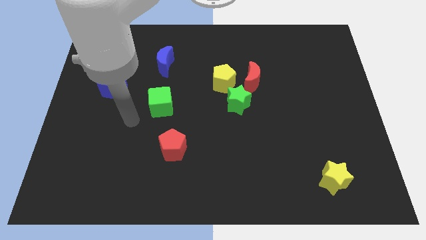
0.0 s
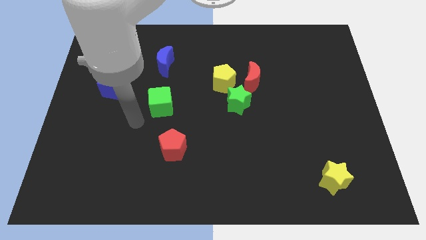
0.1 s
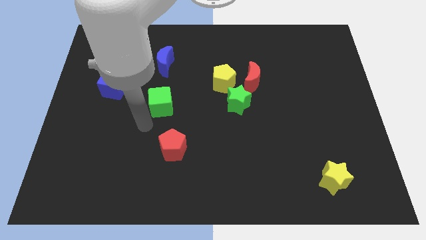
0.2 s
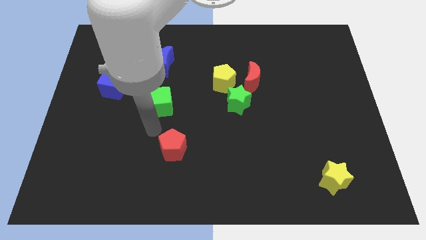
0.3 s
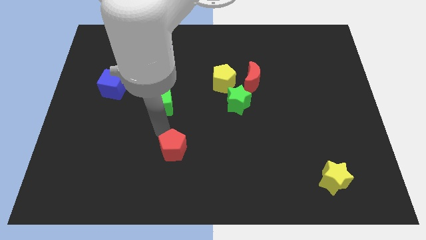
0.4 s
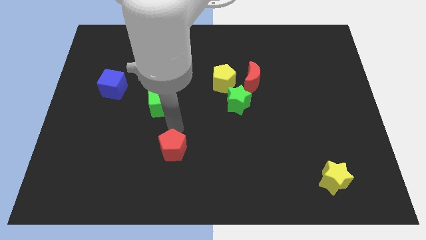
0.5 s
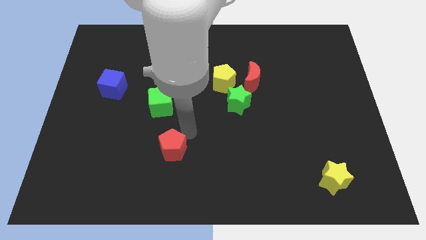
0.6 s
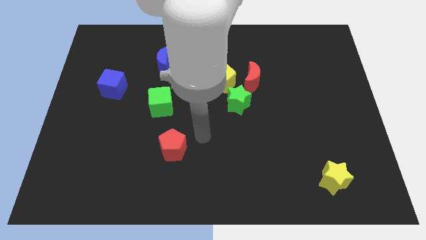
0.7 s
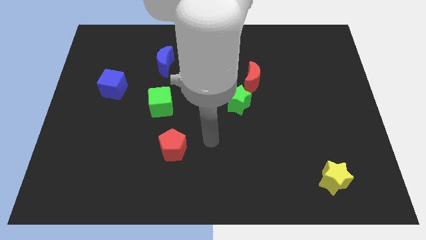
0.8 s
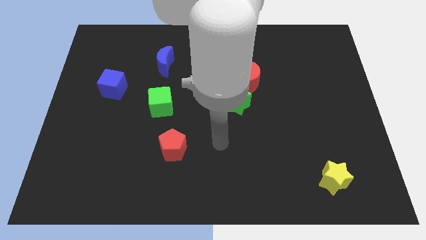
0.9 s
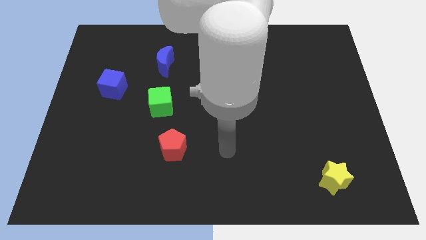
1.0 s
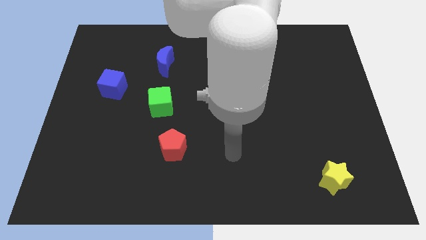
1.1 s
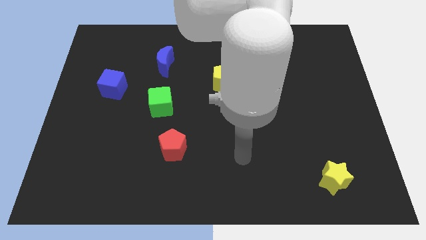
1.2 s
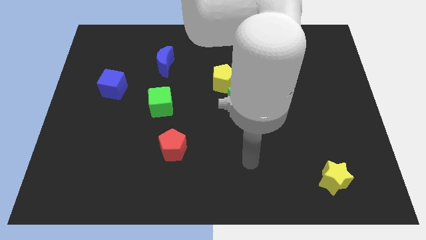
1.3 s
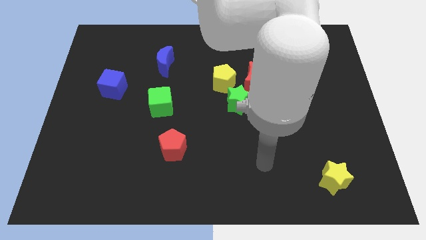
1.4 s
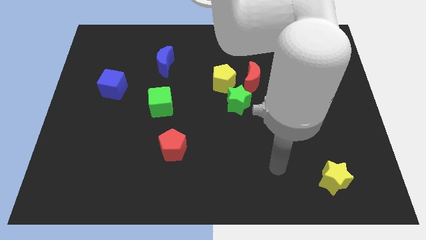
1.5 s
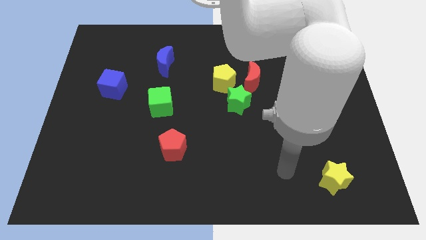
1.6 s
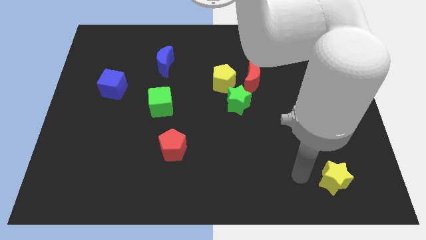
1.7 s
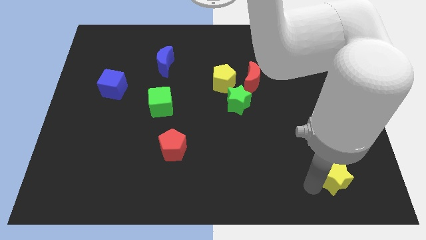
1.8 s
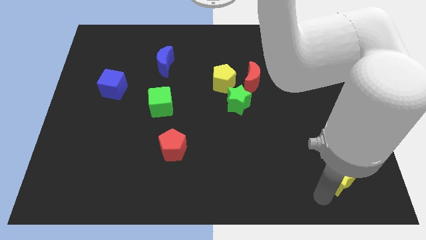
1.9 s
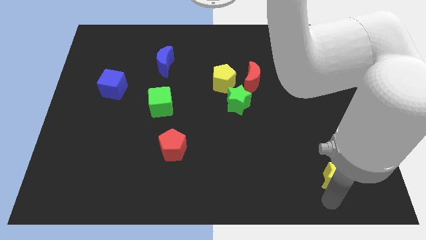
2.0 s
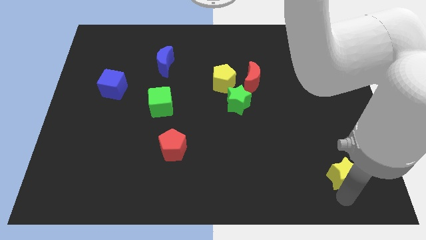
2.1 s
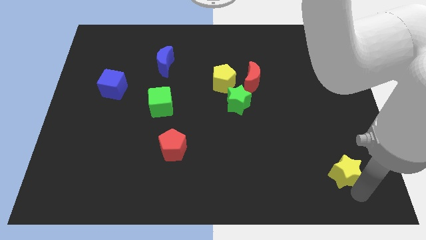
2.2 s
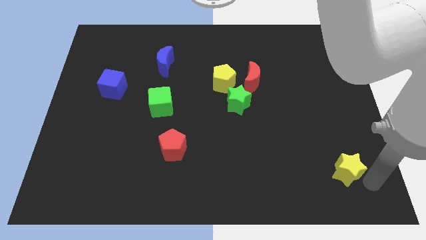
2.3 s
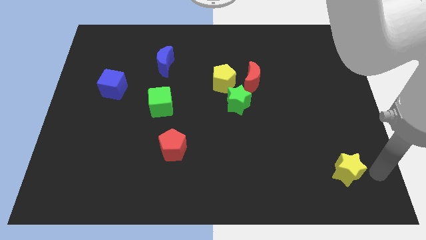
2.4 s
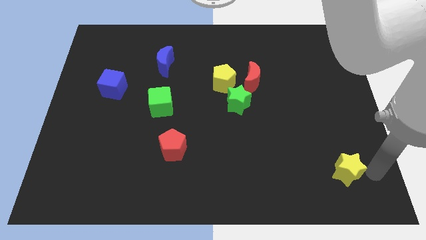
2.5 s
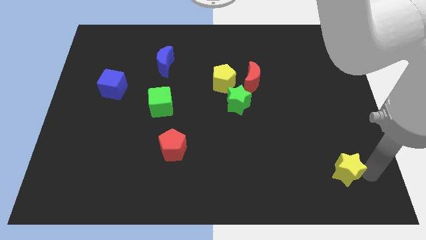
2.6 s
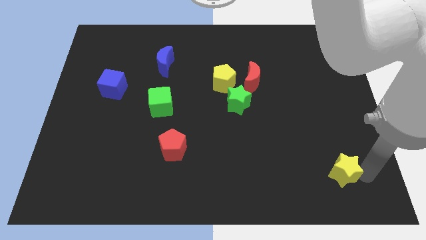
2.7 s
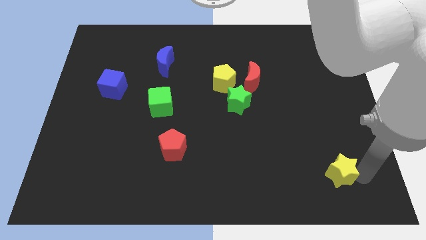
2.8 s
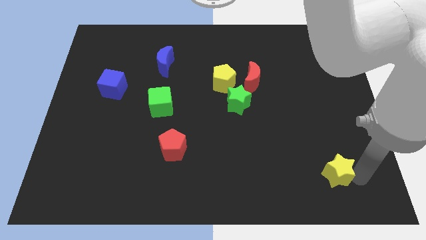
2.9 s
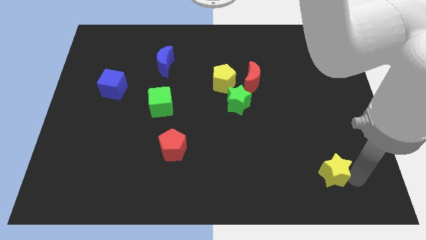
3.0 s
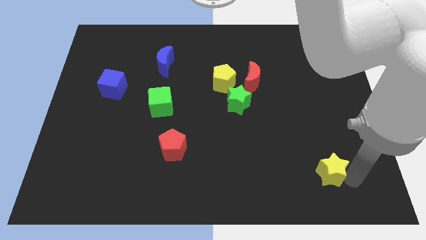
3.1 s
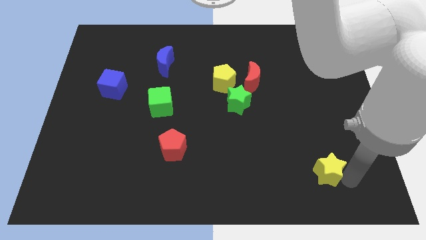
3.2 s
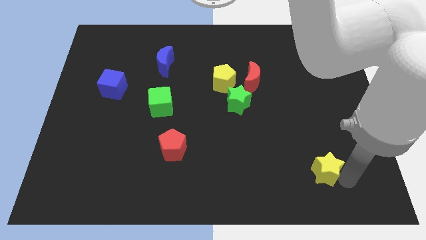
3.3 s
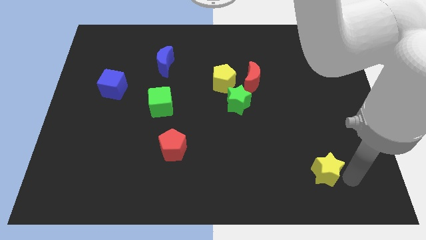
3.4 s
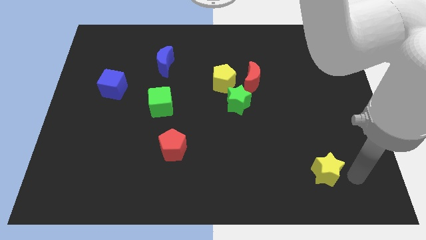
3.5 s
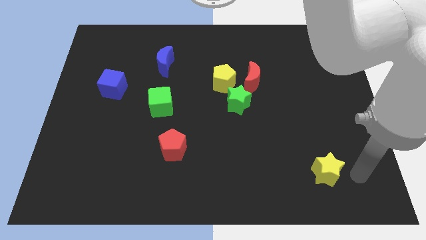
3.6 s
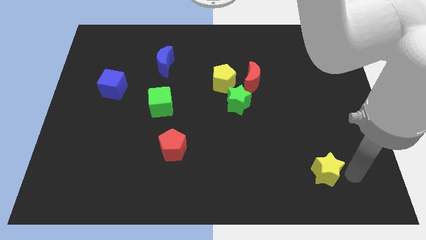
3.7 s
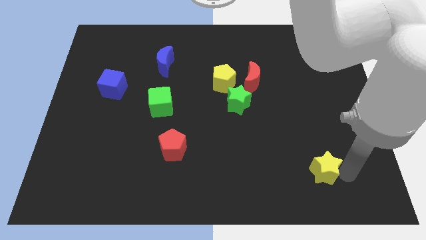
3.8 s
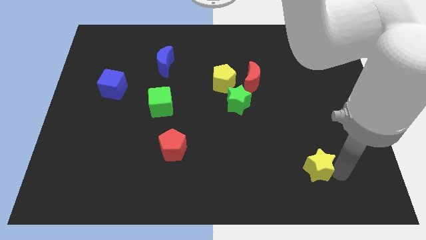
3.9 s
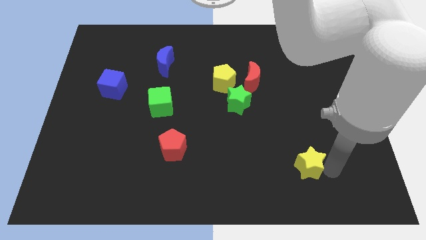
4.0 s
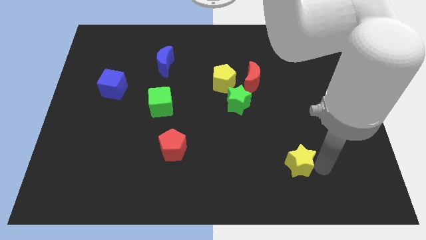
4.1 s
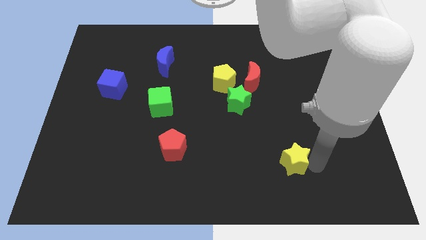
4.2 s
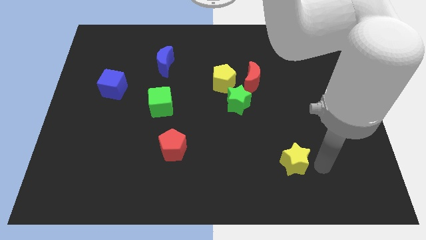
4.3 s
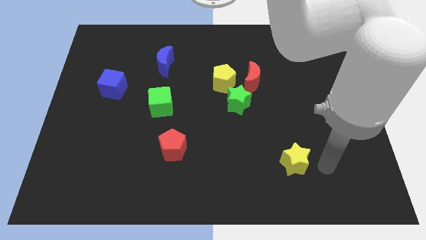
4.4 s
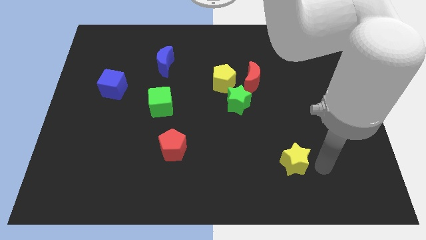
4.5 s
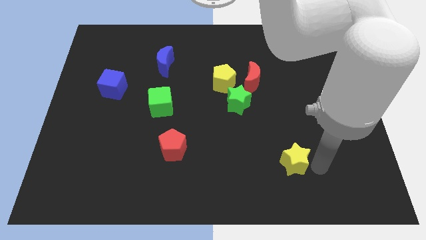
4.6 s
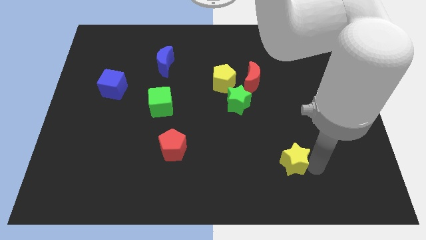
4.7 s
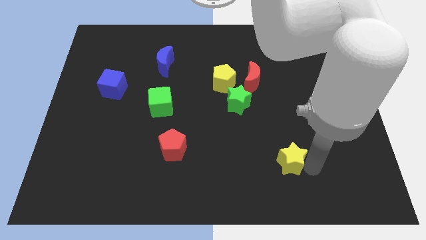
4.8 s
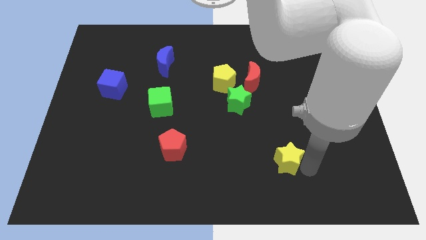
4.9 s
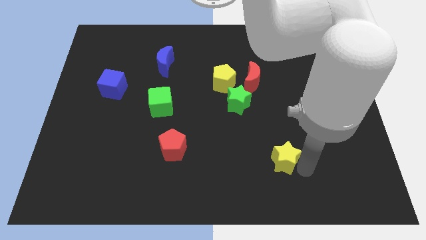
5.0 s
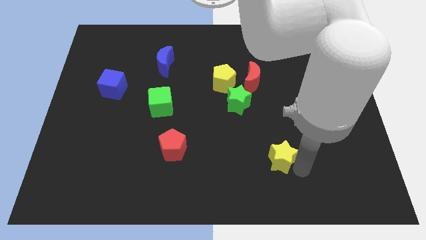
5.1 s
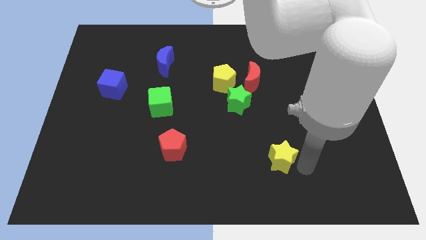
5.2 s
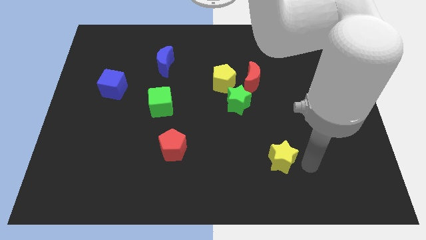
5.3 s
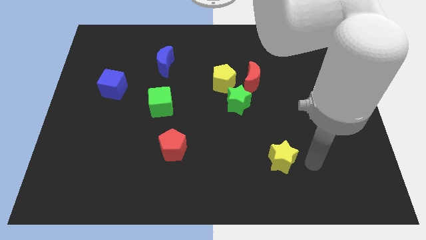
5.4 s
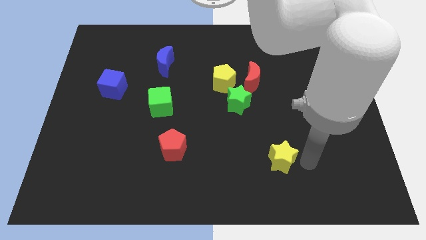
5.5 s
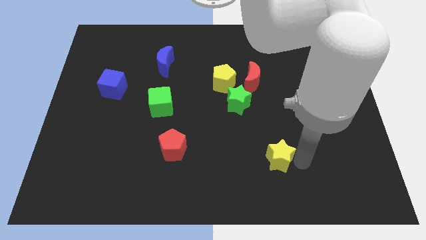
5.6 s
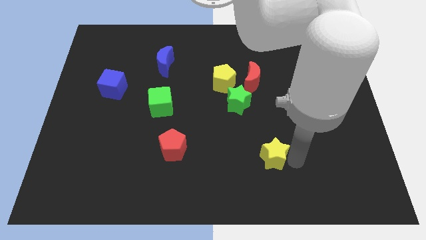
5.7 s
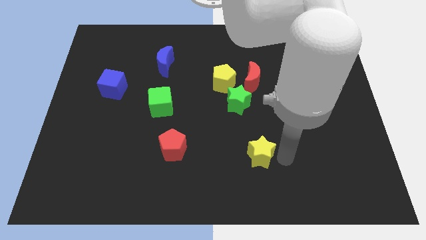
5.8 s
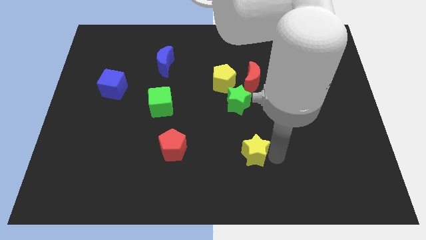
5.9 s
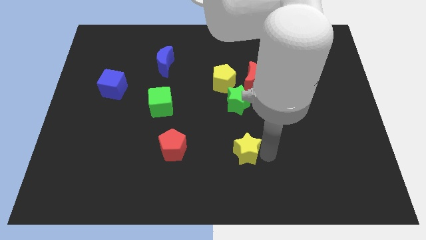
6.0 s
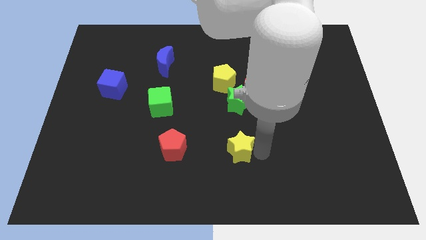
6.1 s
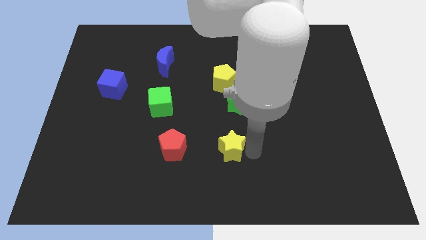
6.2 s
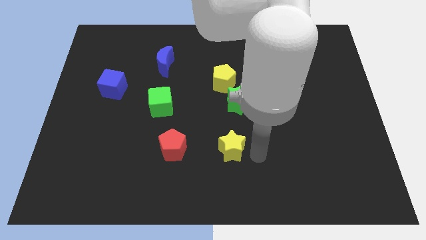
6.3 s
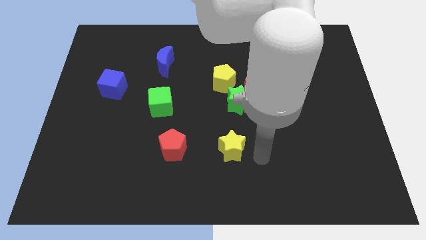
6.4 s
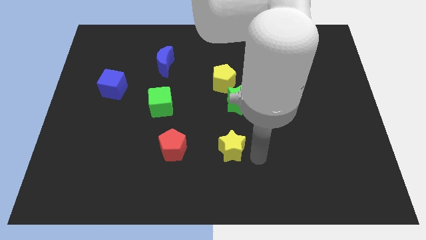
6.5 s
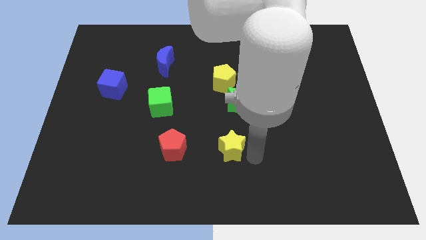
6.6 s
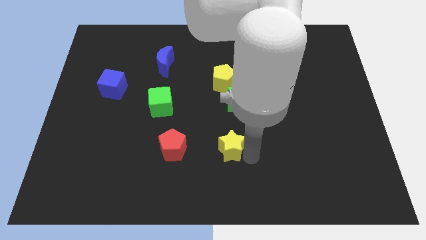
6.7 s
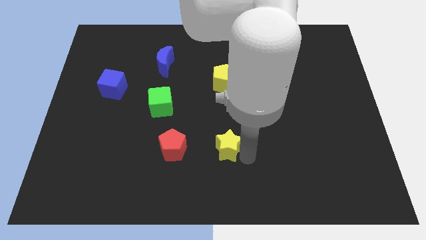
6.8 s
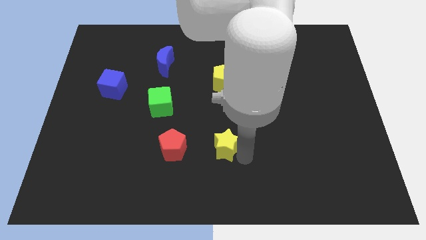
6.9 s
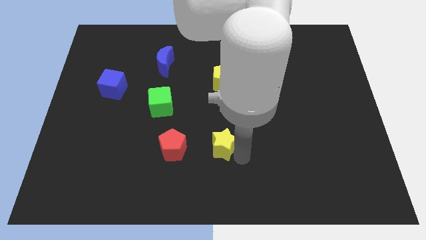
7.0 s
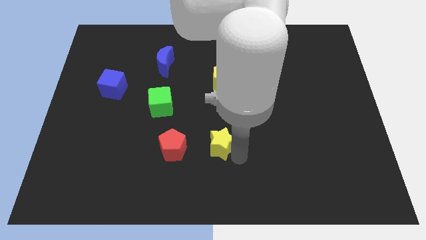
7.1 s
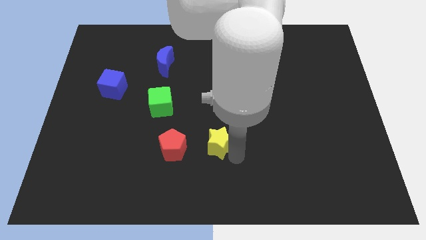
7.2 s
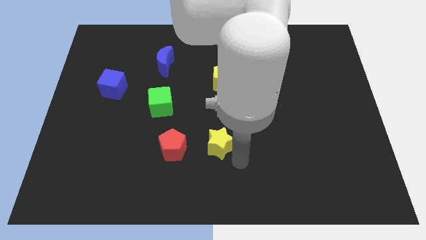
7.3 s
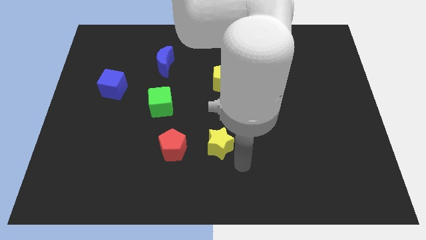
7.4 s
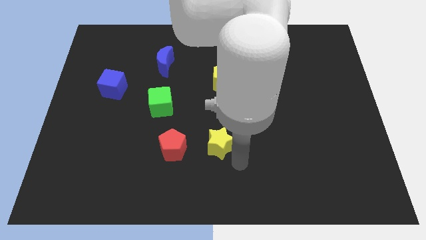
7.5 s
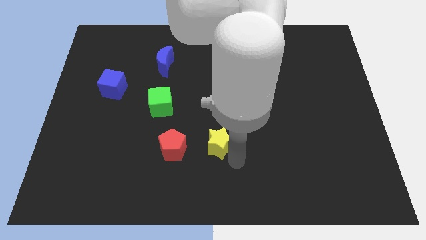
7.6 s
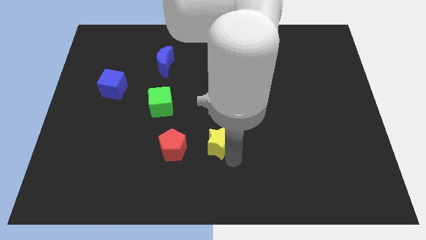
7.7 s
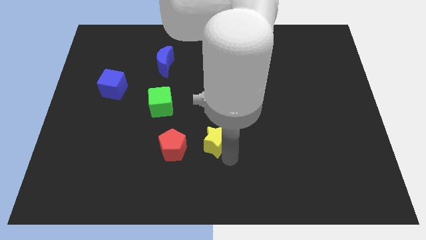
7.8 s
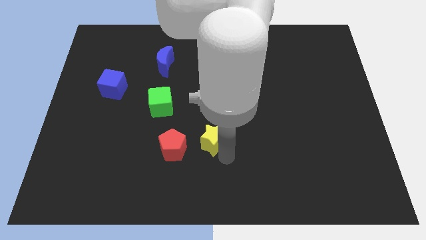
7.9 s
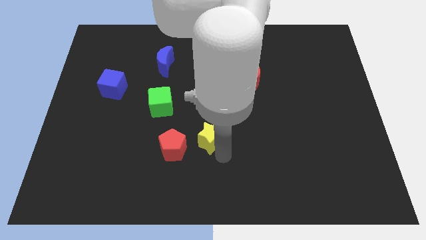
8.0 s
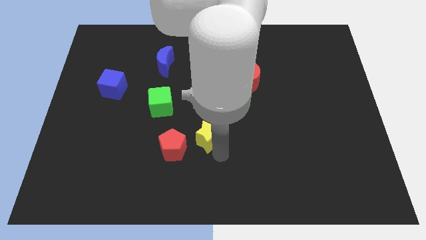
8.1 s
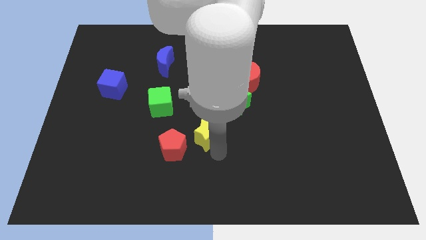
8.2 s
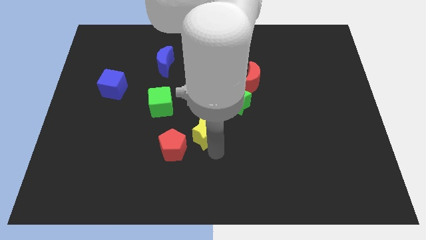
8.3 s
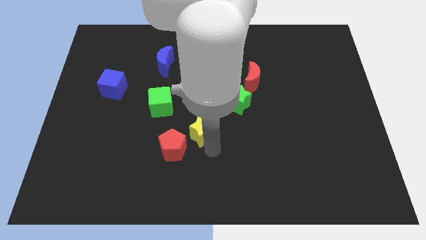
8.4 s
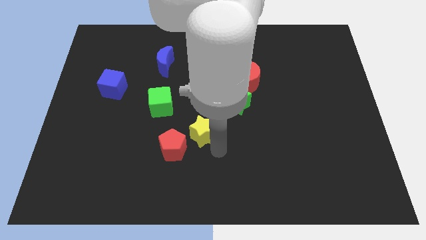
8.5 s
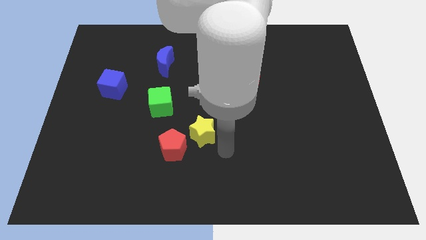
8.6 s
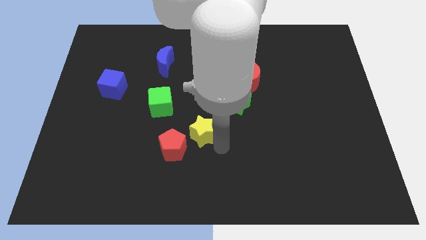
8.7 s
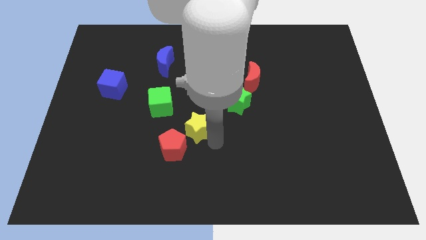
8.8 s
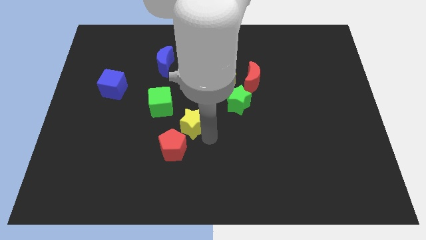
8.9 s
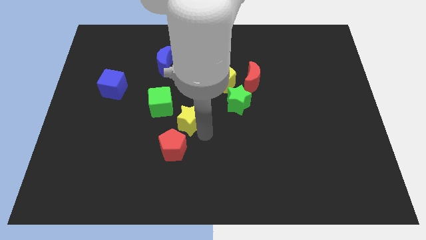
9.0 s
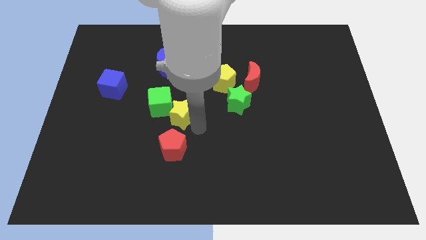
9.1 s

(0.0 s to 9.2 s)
move the yellow star to the green cube
